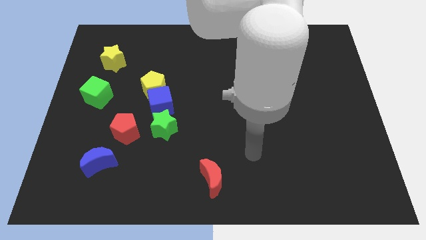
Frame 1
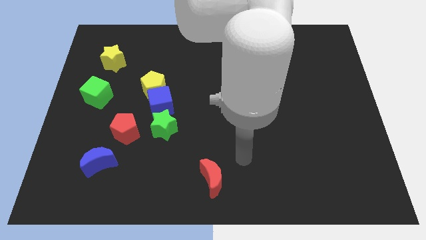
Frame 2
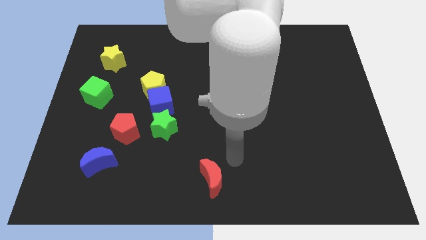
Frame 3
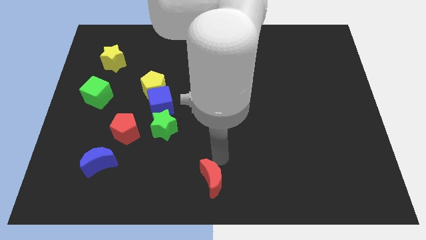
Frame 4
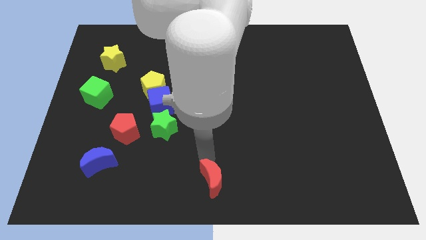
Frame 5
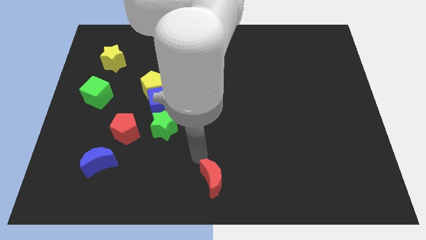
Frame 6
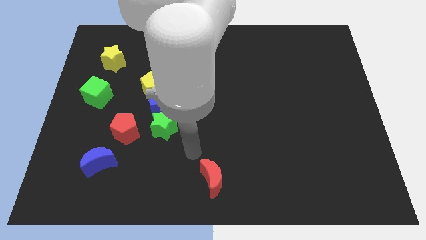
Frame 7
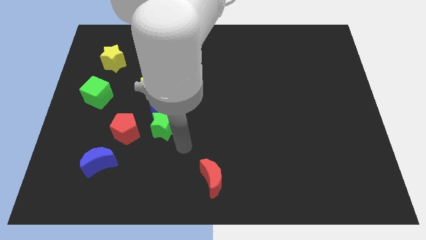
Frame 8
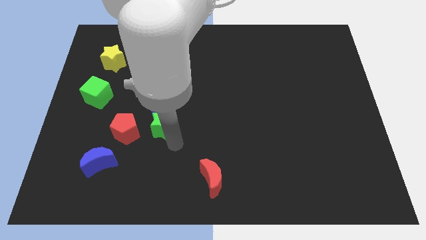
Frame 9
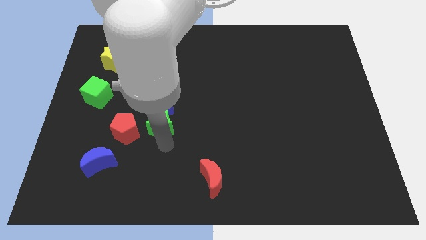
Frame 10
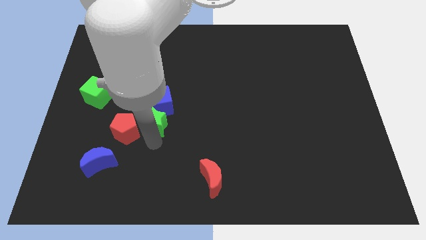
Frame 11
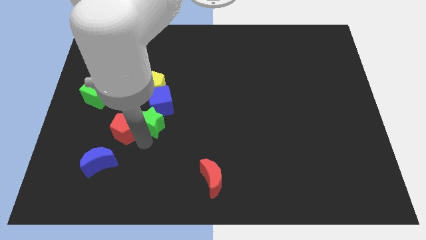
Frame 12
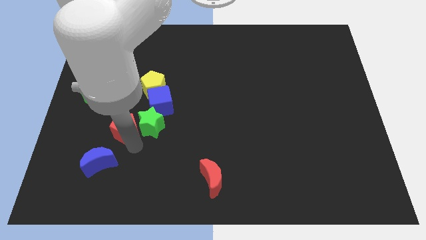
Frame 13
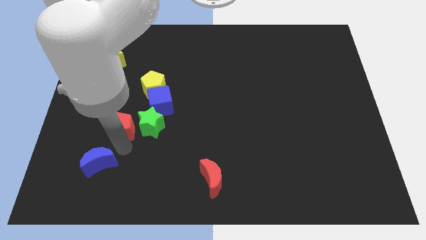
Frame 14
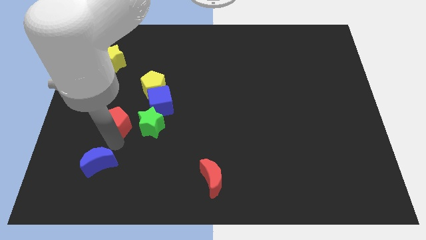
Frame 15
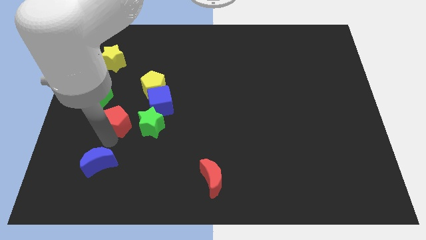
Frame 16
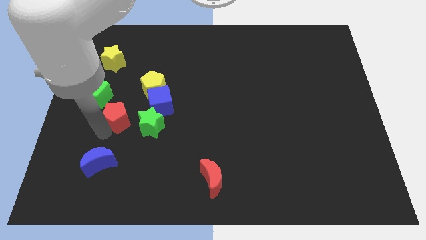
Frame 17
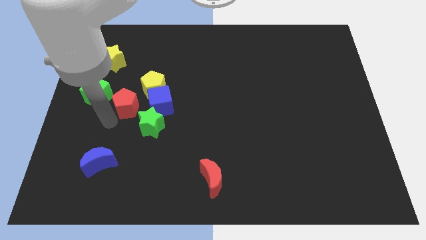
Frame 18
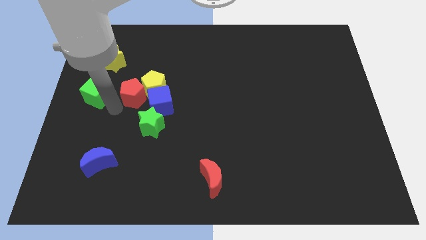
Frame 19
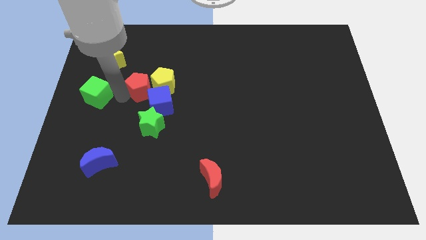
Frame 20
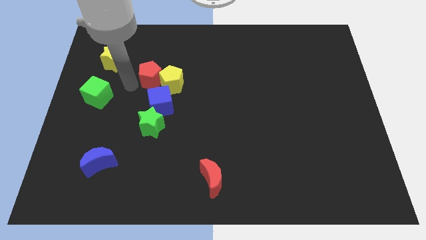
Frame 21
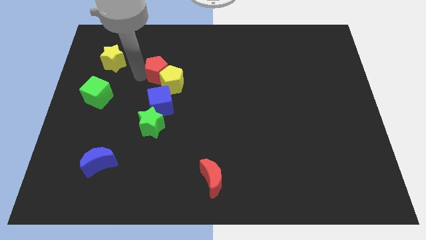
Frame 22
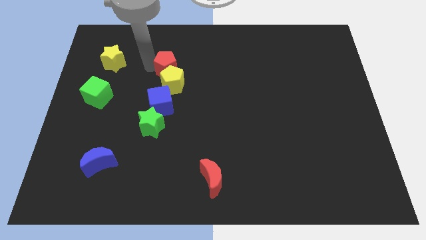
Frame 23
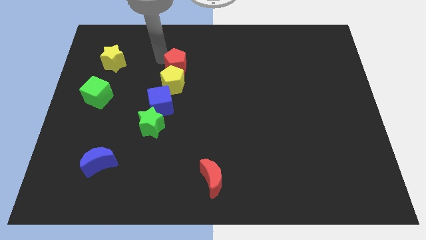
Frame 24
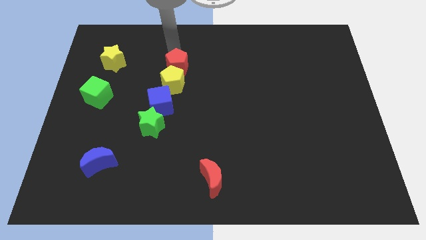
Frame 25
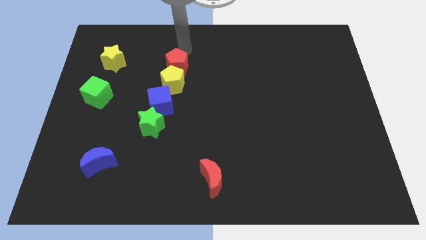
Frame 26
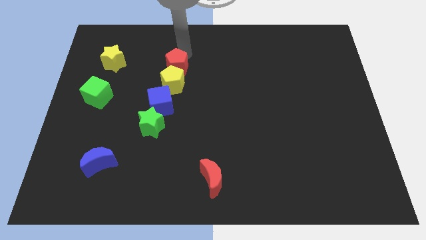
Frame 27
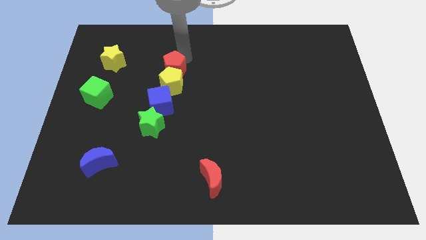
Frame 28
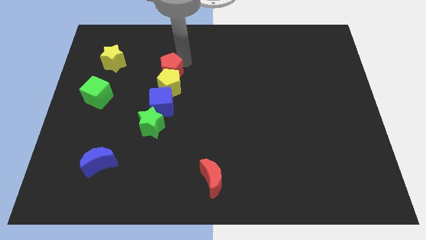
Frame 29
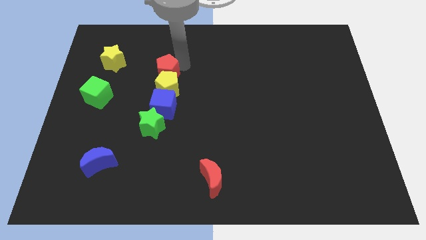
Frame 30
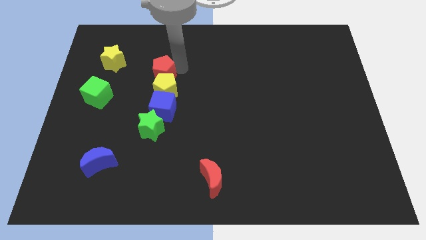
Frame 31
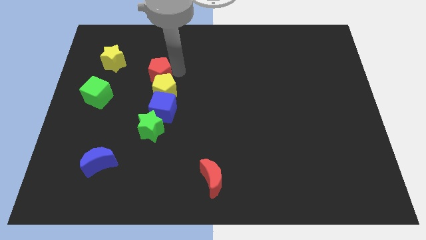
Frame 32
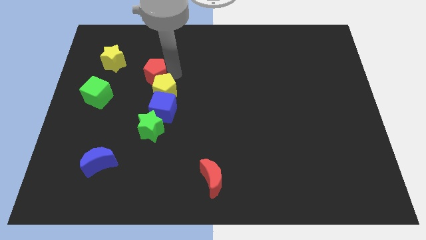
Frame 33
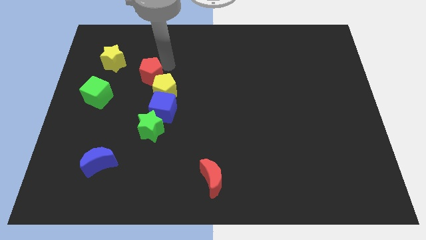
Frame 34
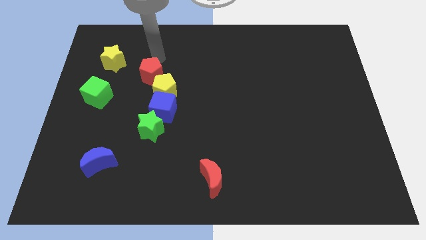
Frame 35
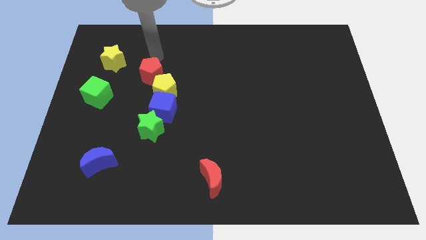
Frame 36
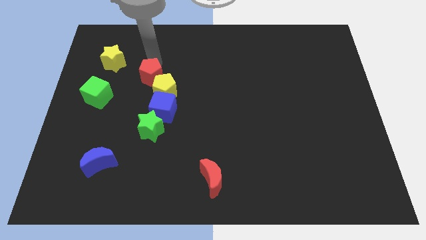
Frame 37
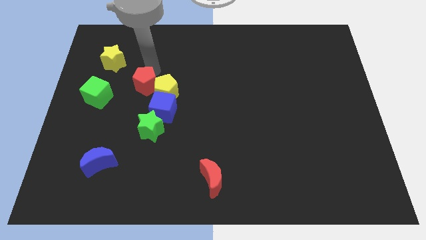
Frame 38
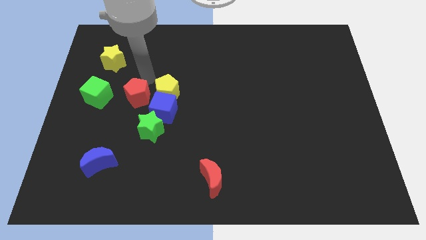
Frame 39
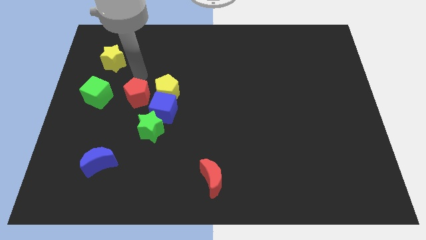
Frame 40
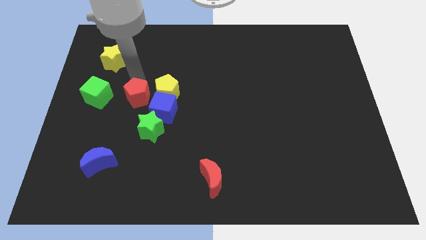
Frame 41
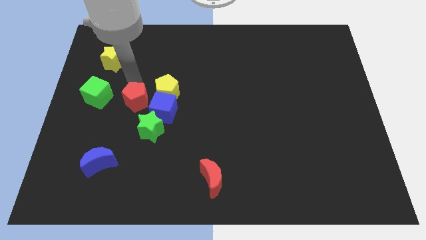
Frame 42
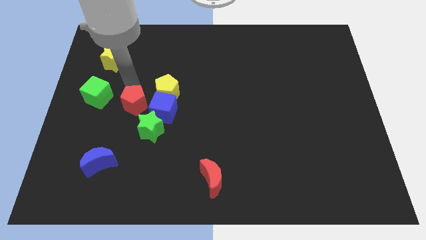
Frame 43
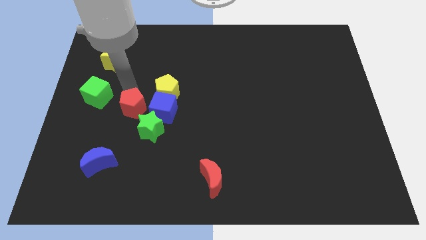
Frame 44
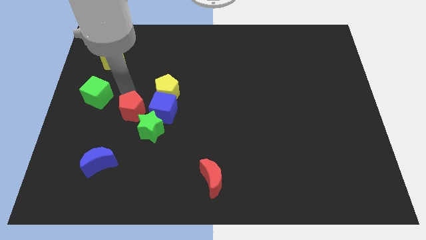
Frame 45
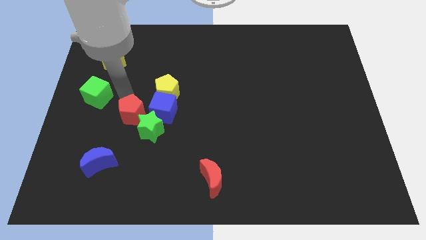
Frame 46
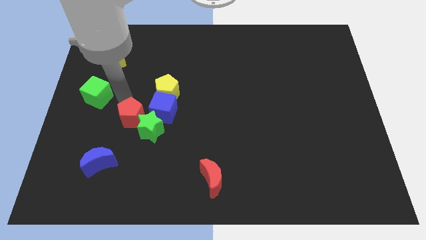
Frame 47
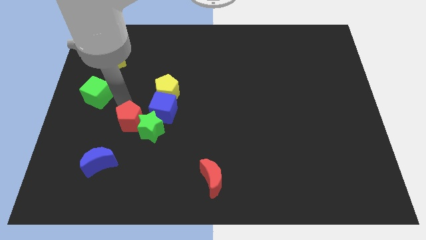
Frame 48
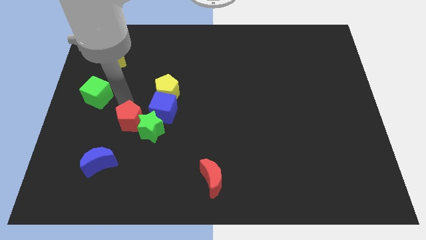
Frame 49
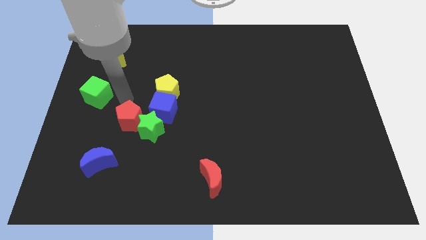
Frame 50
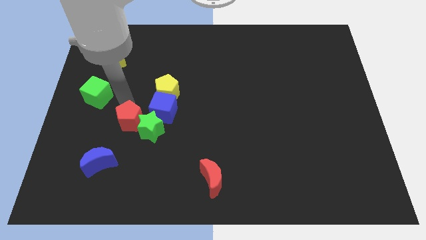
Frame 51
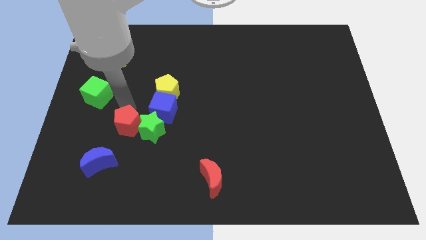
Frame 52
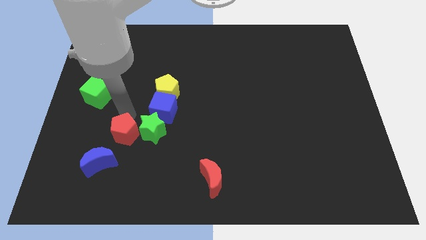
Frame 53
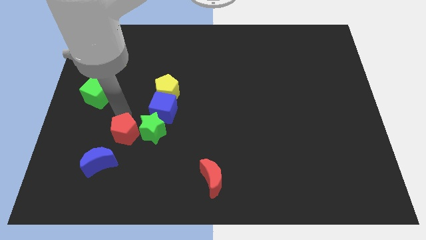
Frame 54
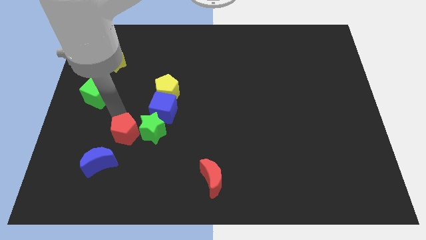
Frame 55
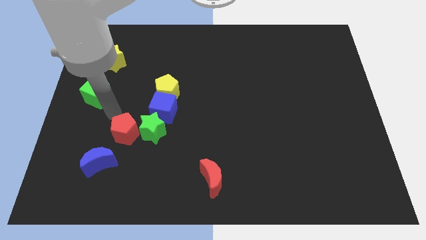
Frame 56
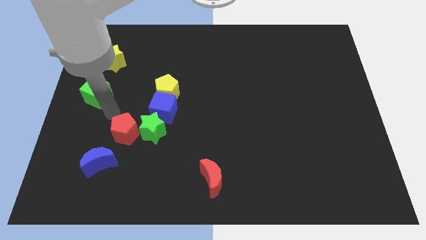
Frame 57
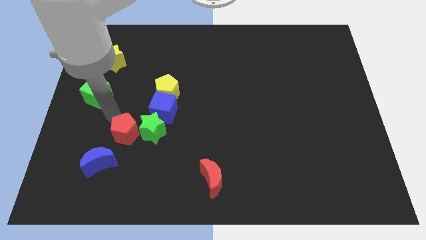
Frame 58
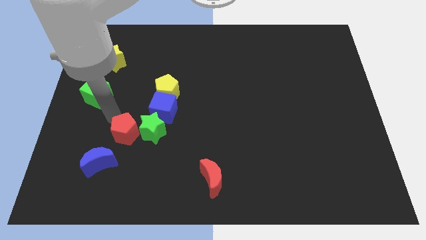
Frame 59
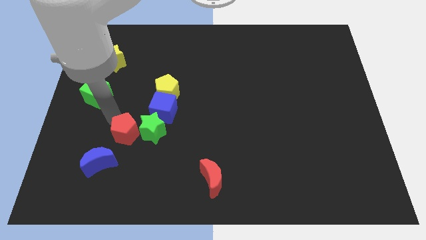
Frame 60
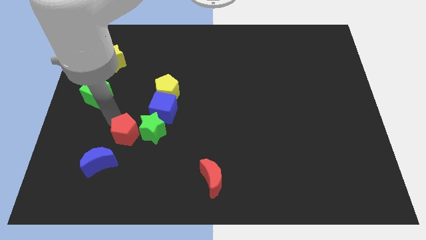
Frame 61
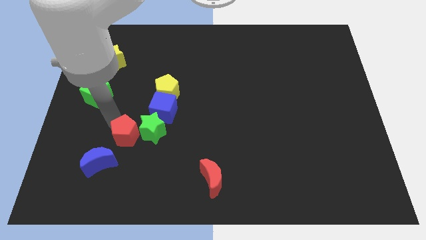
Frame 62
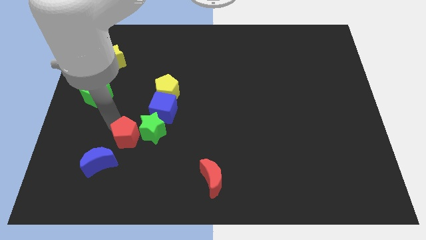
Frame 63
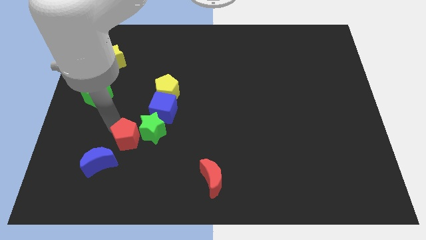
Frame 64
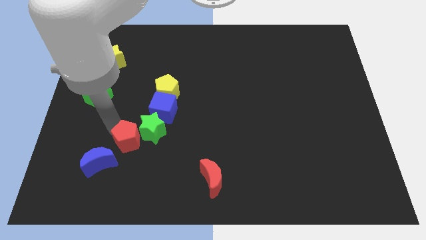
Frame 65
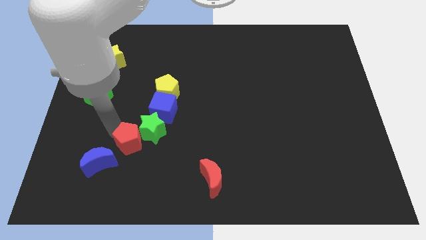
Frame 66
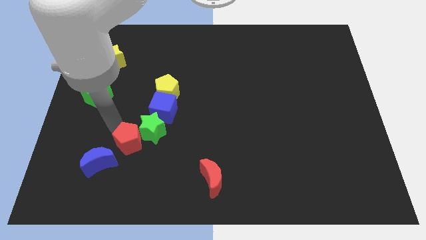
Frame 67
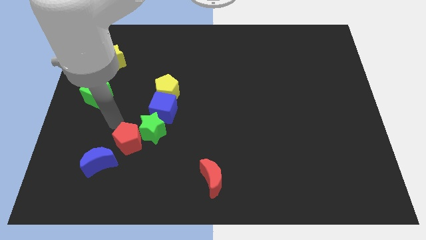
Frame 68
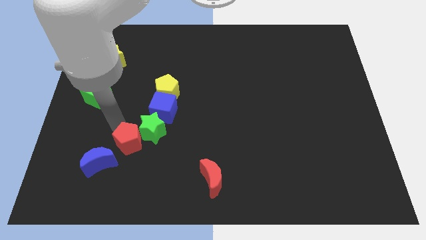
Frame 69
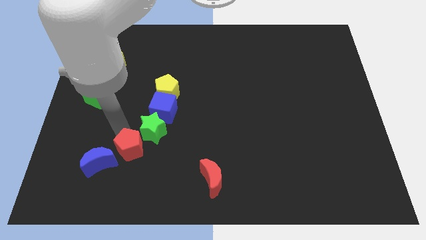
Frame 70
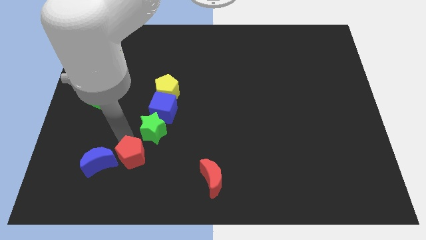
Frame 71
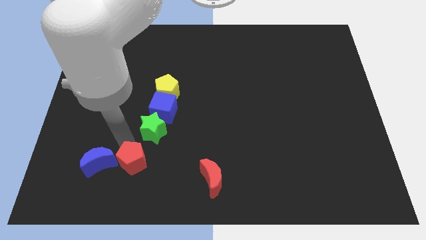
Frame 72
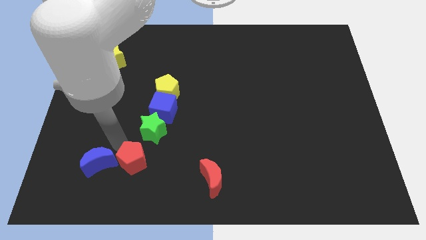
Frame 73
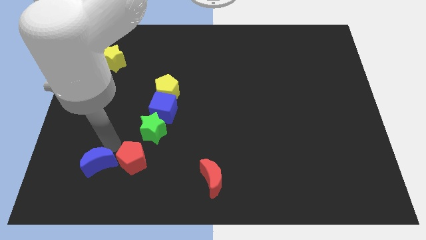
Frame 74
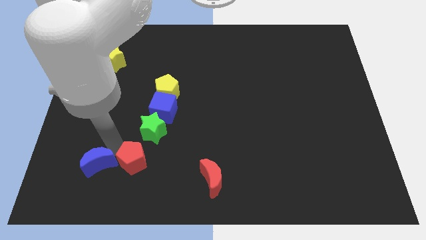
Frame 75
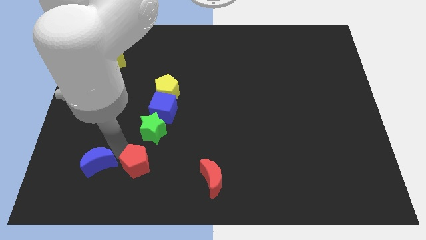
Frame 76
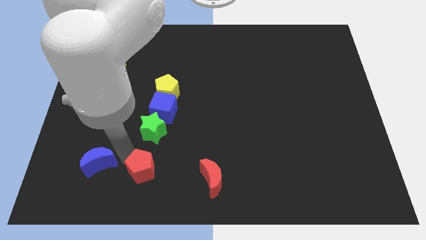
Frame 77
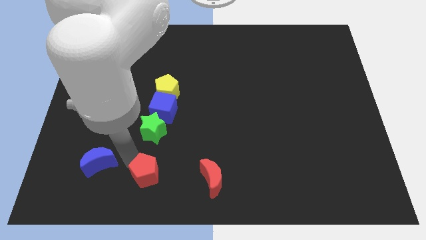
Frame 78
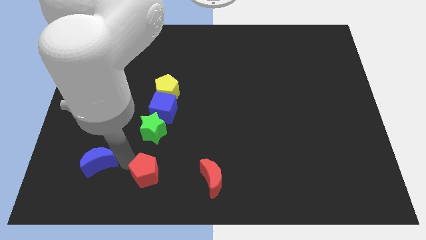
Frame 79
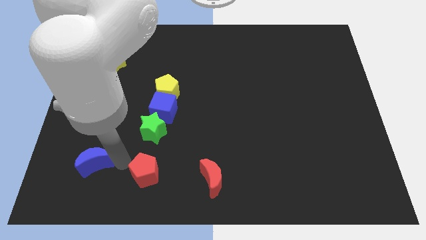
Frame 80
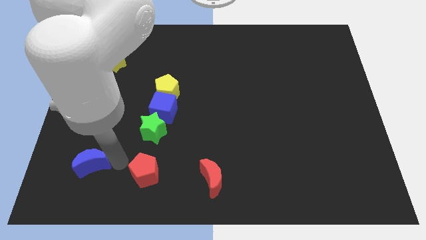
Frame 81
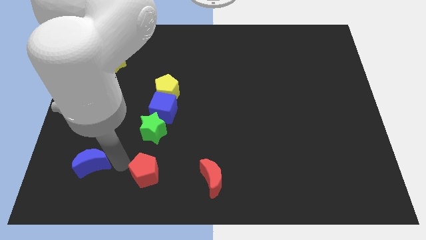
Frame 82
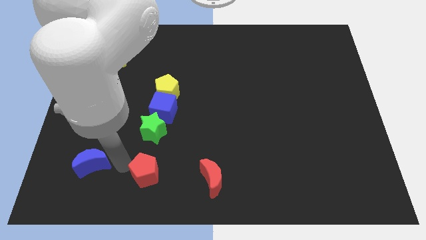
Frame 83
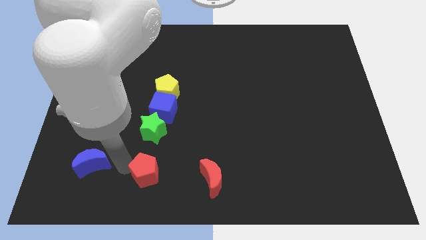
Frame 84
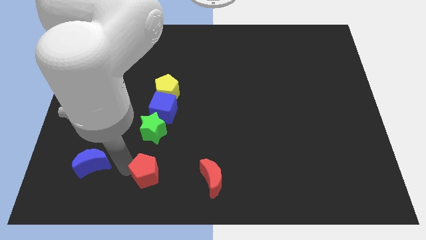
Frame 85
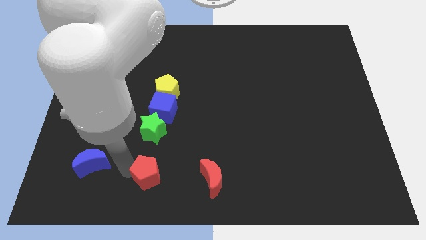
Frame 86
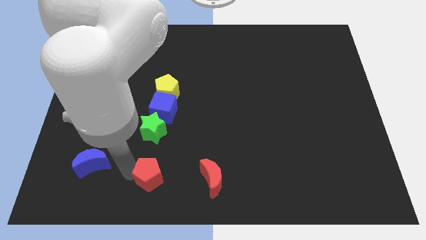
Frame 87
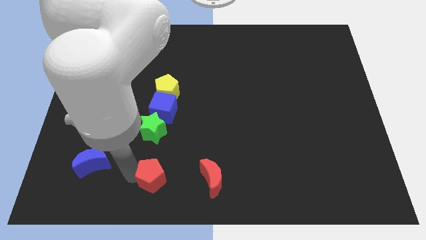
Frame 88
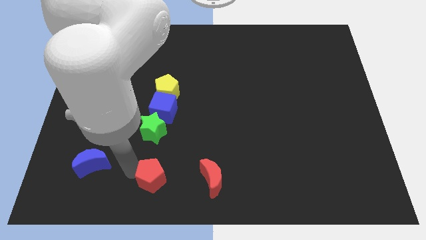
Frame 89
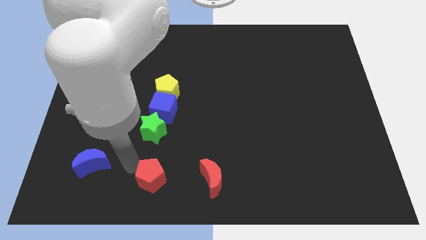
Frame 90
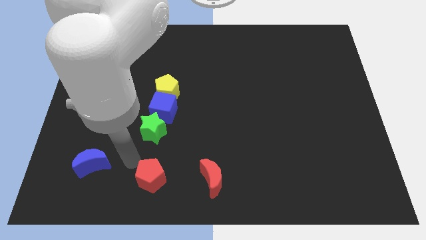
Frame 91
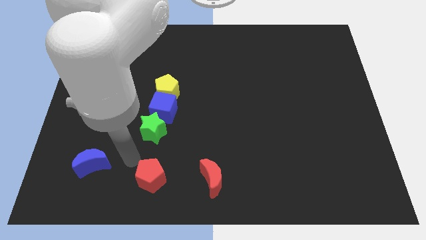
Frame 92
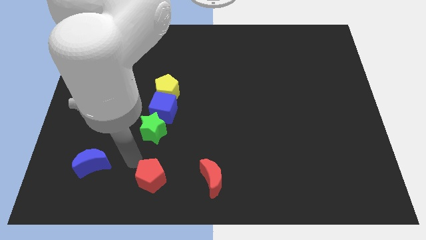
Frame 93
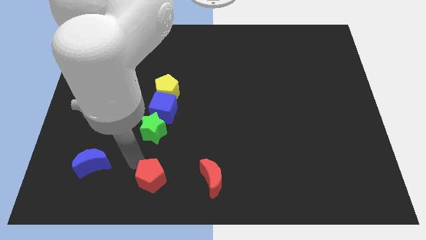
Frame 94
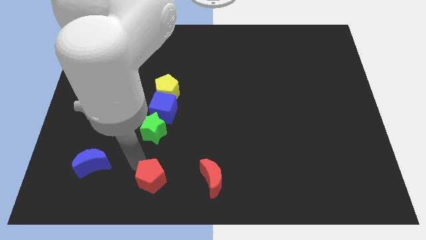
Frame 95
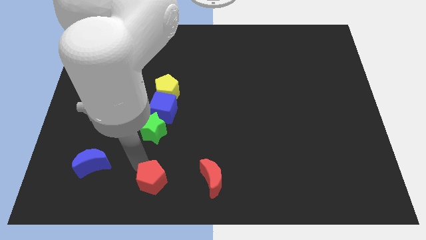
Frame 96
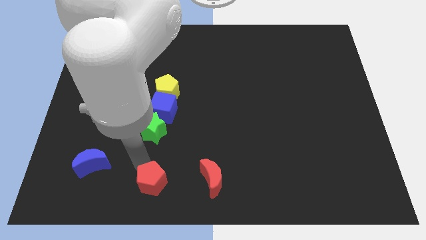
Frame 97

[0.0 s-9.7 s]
move the red pentagon to the bottom side
